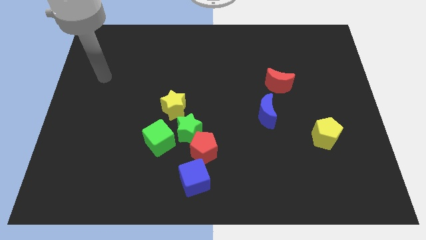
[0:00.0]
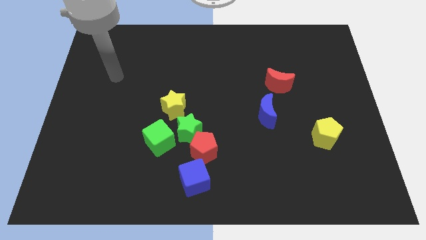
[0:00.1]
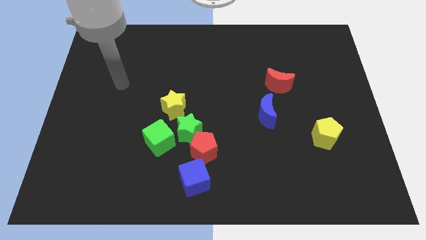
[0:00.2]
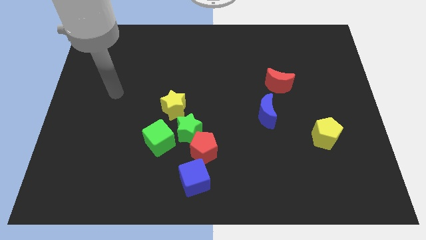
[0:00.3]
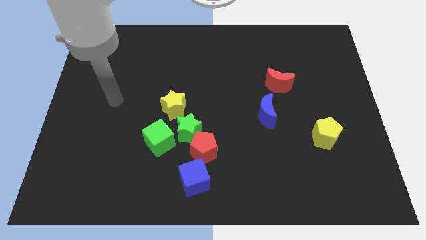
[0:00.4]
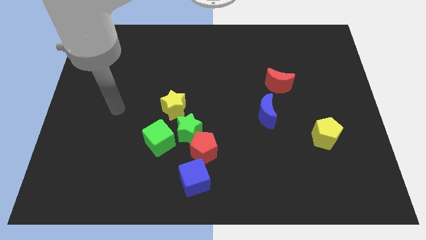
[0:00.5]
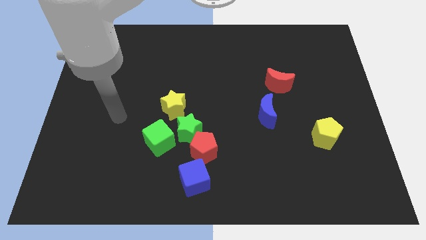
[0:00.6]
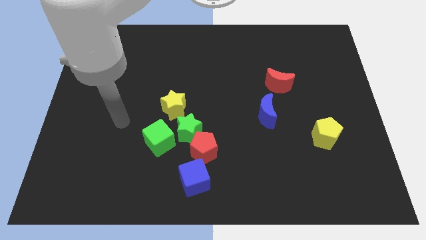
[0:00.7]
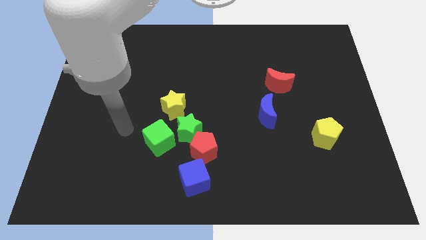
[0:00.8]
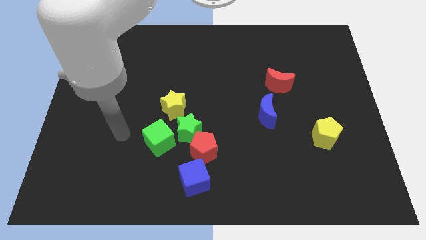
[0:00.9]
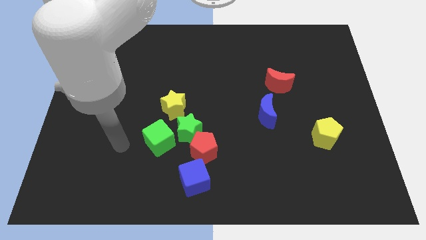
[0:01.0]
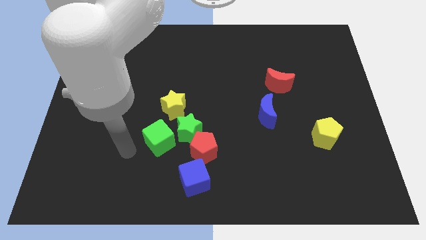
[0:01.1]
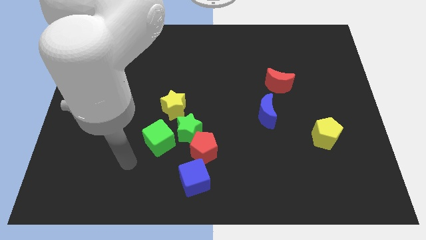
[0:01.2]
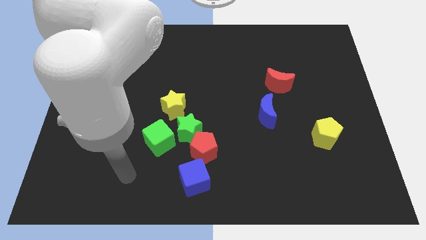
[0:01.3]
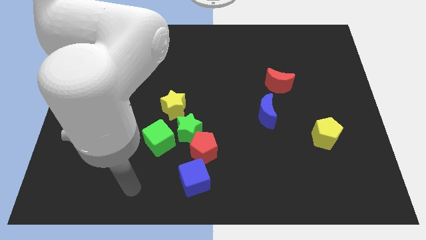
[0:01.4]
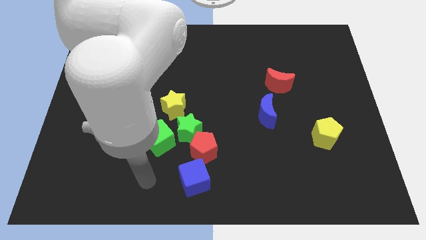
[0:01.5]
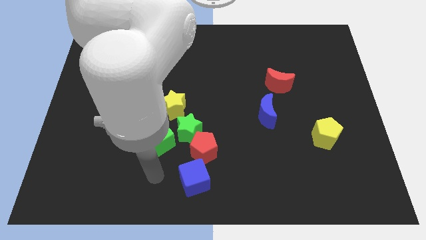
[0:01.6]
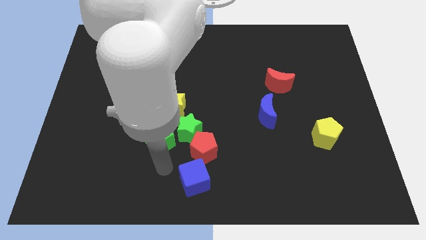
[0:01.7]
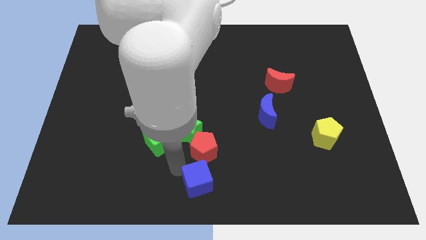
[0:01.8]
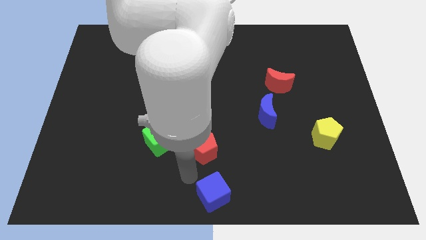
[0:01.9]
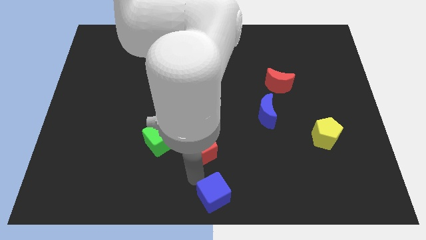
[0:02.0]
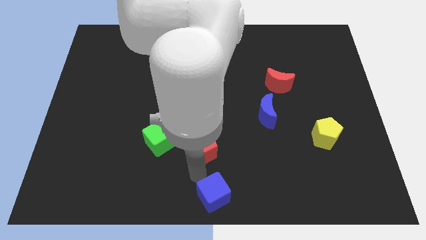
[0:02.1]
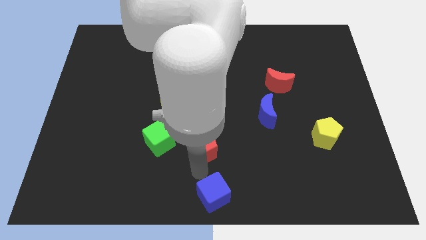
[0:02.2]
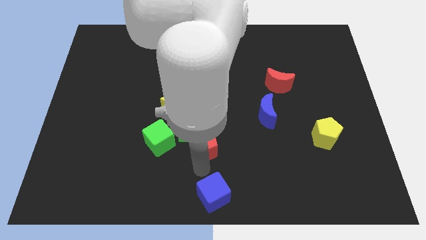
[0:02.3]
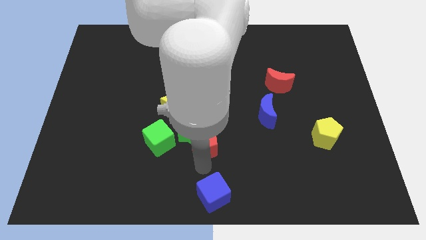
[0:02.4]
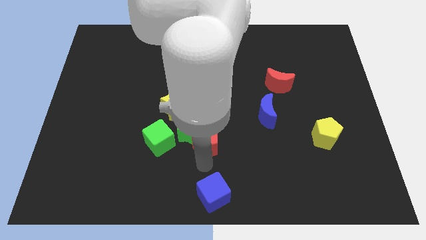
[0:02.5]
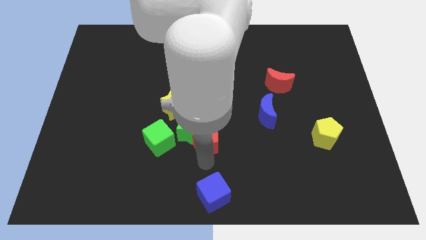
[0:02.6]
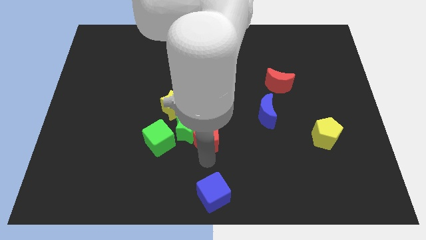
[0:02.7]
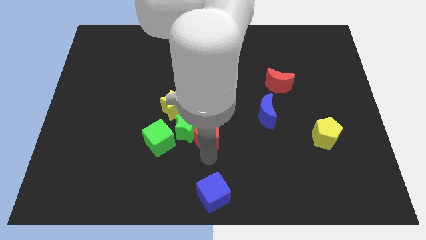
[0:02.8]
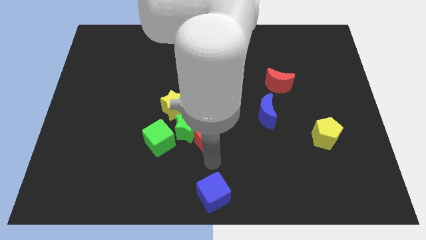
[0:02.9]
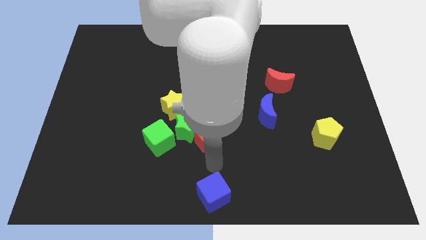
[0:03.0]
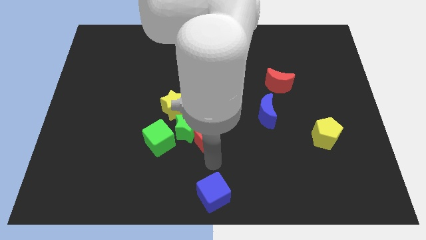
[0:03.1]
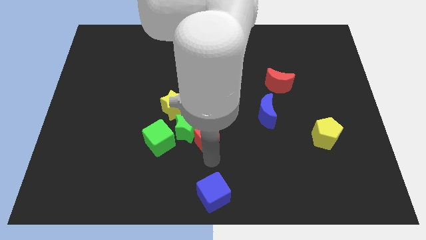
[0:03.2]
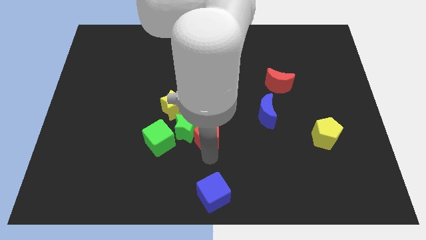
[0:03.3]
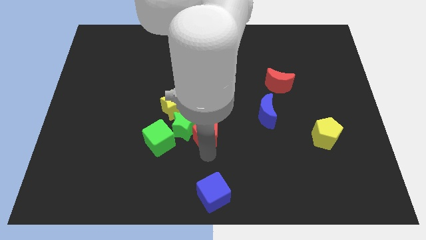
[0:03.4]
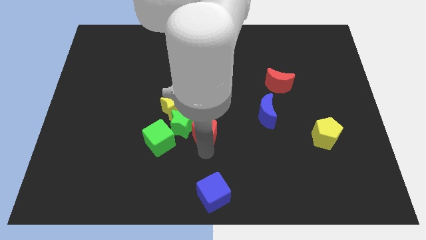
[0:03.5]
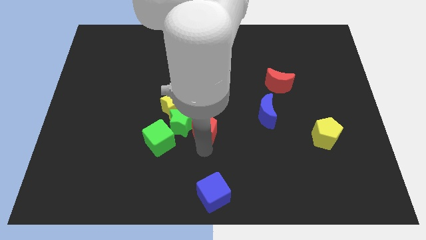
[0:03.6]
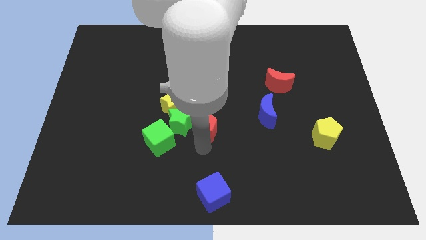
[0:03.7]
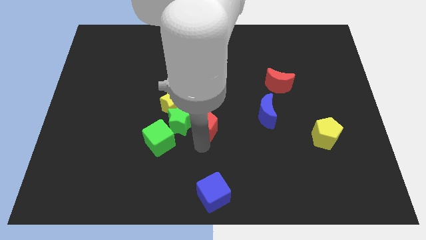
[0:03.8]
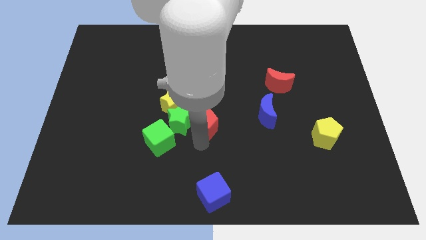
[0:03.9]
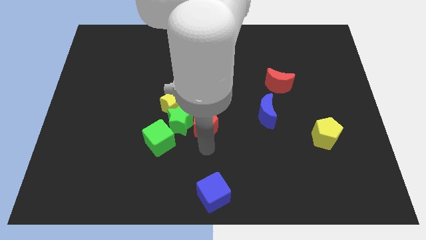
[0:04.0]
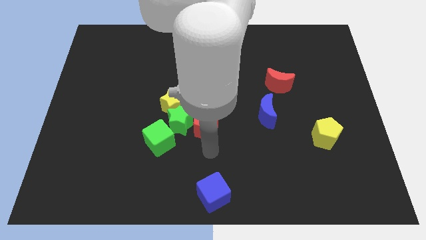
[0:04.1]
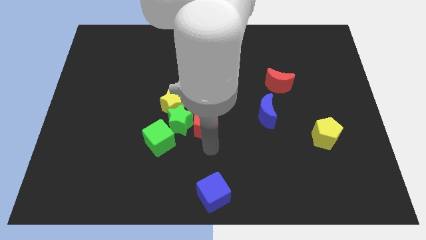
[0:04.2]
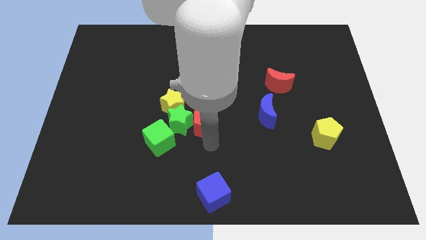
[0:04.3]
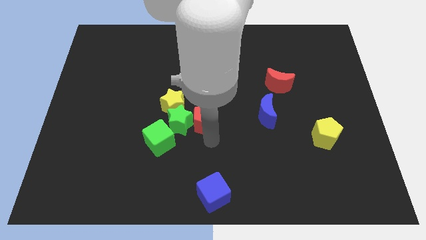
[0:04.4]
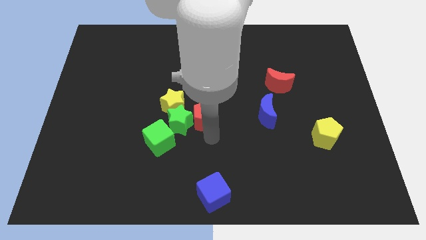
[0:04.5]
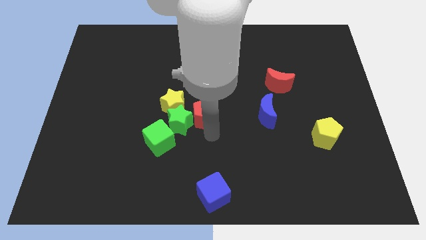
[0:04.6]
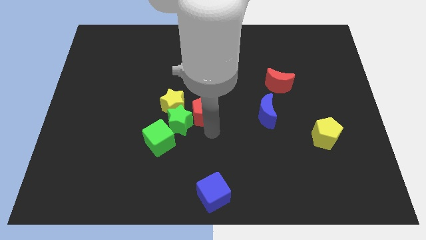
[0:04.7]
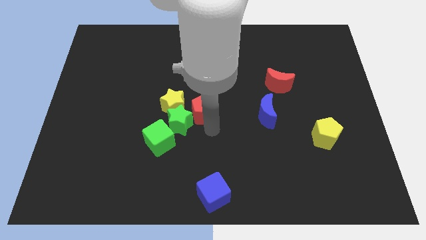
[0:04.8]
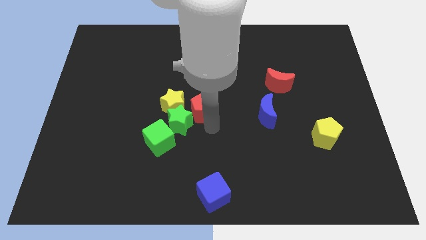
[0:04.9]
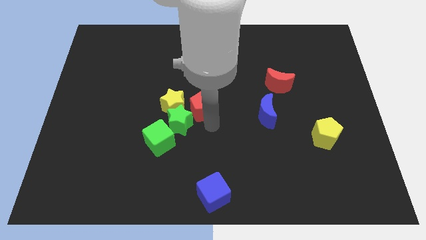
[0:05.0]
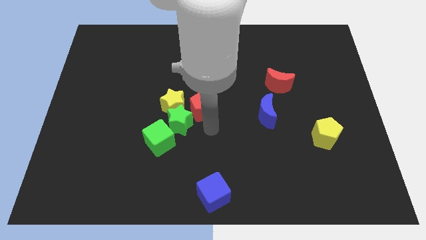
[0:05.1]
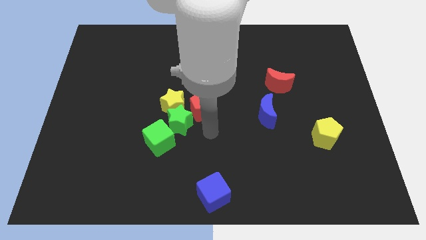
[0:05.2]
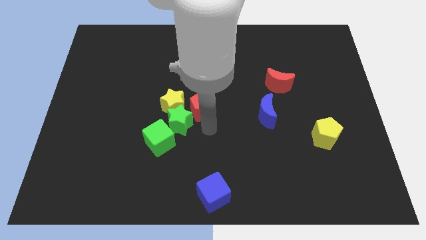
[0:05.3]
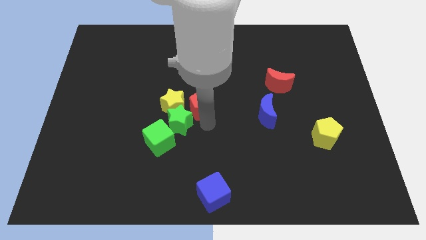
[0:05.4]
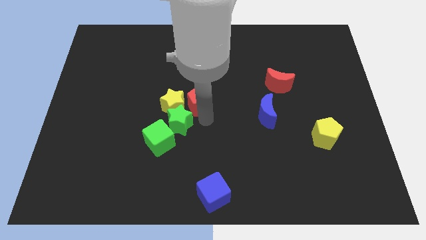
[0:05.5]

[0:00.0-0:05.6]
slide the red pentagon upwards and to the left diagonally a bit

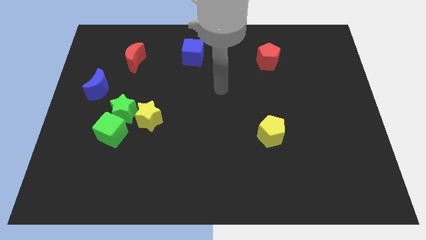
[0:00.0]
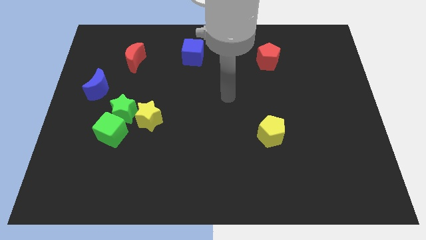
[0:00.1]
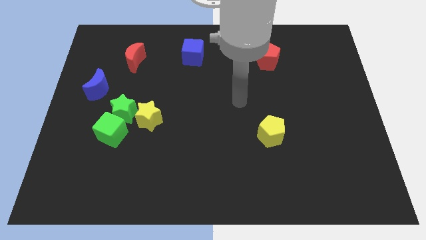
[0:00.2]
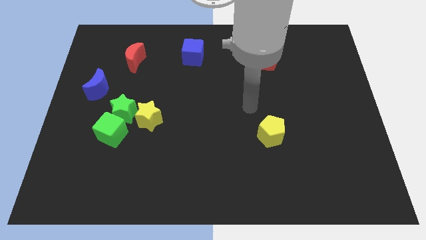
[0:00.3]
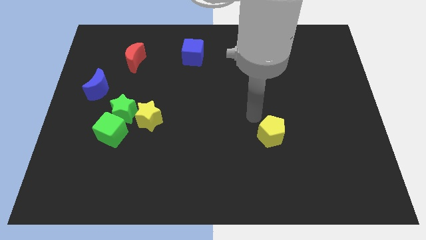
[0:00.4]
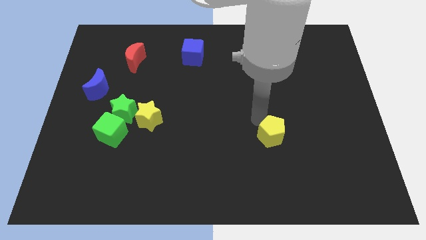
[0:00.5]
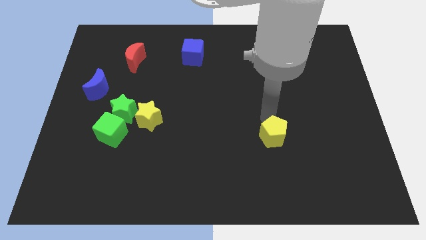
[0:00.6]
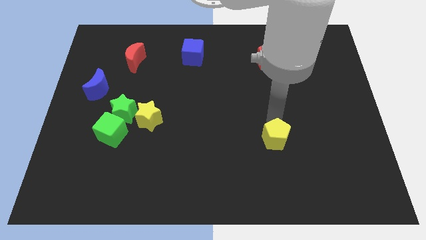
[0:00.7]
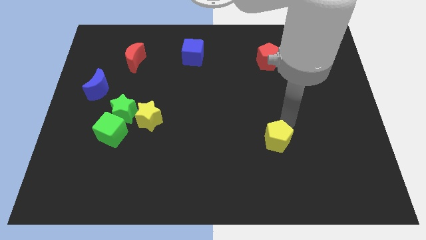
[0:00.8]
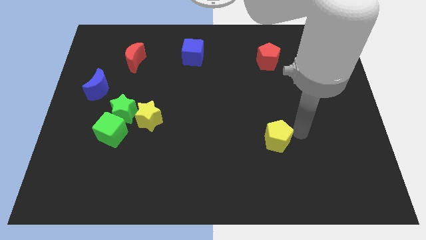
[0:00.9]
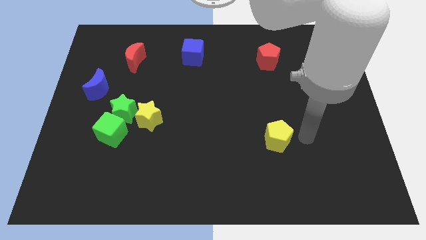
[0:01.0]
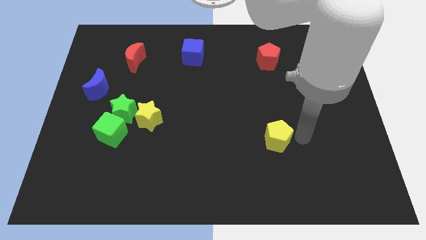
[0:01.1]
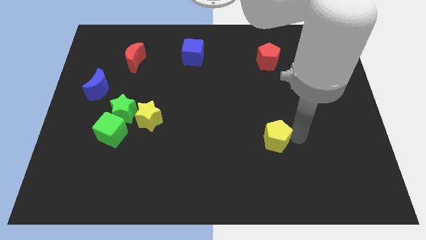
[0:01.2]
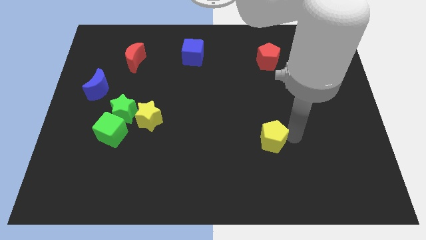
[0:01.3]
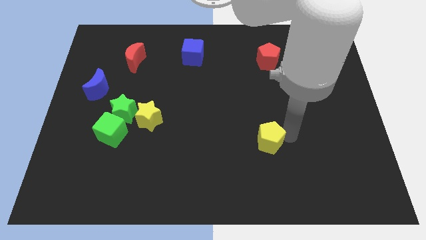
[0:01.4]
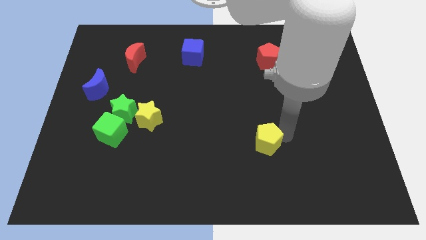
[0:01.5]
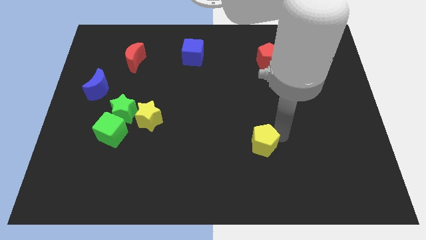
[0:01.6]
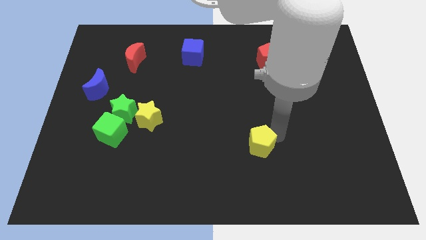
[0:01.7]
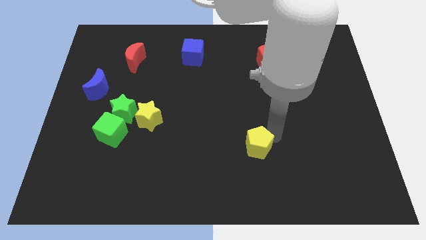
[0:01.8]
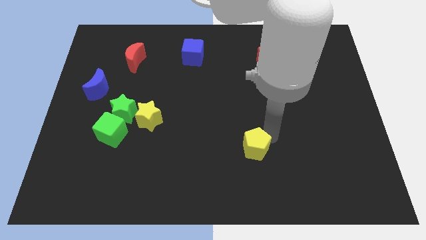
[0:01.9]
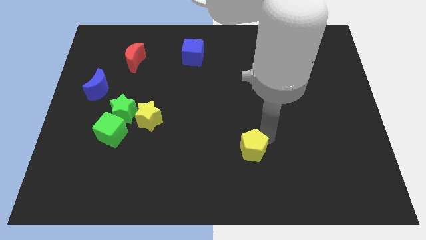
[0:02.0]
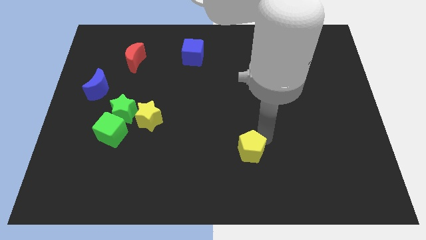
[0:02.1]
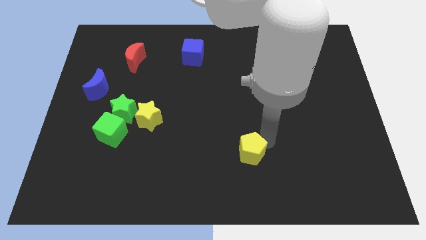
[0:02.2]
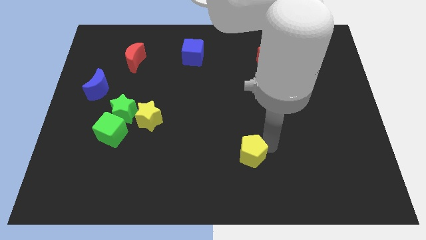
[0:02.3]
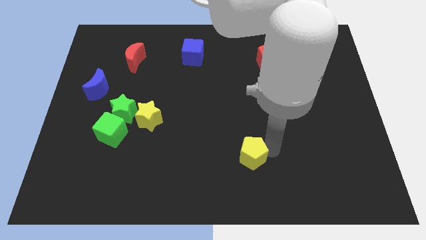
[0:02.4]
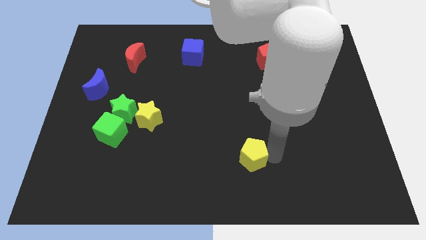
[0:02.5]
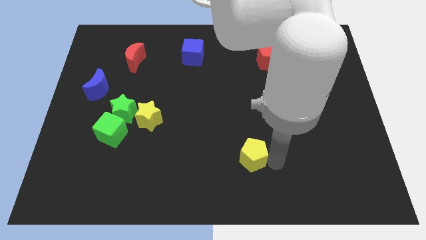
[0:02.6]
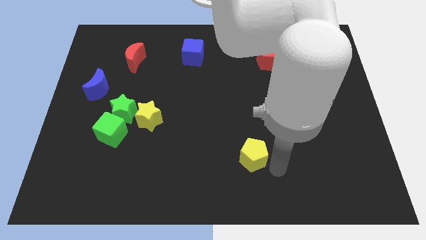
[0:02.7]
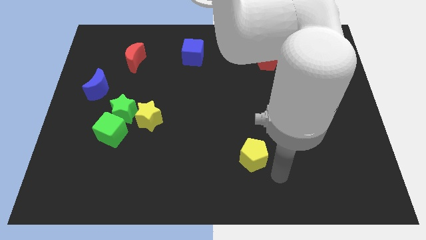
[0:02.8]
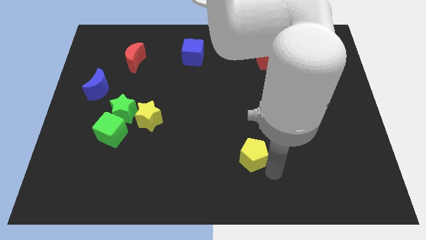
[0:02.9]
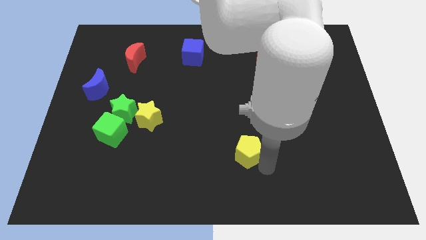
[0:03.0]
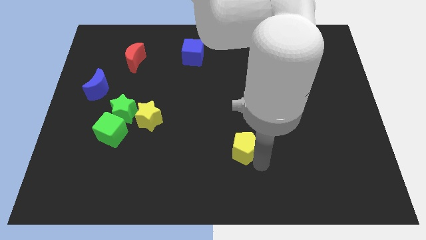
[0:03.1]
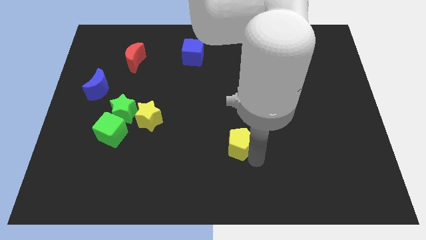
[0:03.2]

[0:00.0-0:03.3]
push the yellow pentagon to the left a bit
